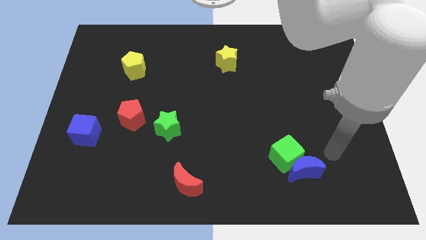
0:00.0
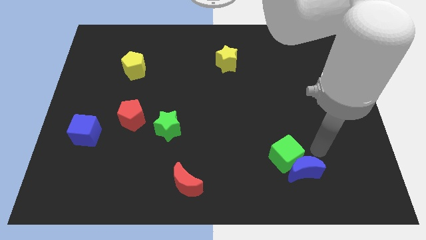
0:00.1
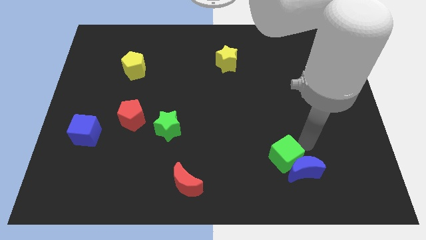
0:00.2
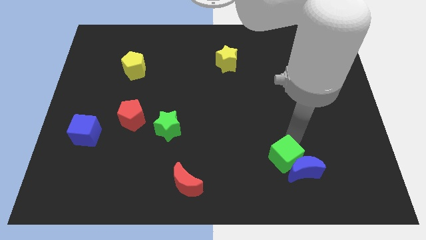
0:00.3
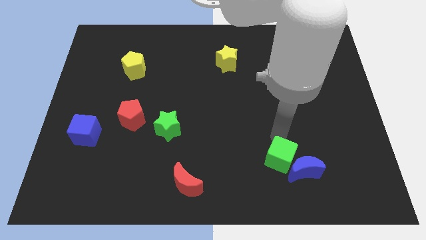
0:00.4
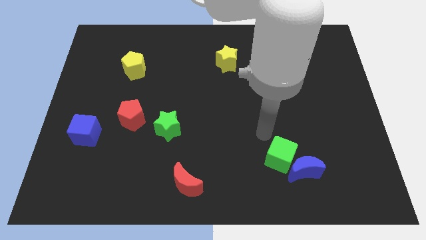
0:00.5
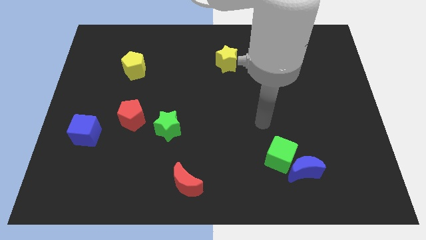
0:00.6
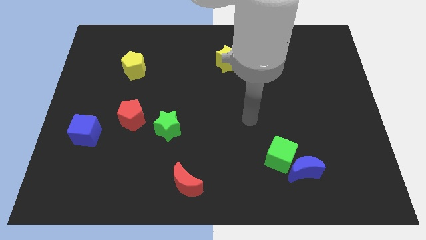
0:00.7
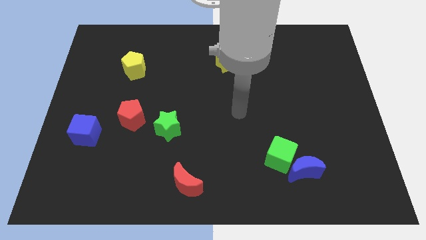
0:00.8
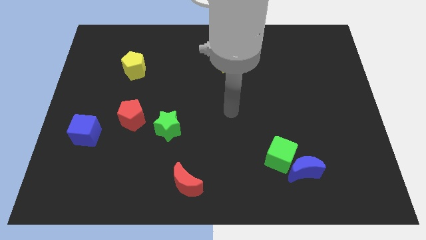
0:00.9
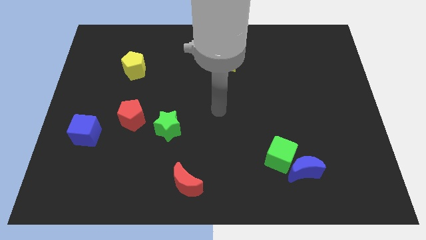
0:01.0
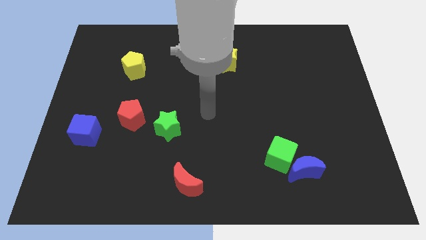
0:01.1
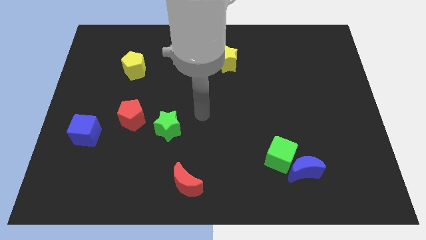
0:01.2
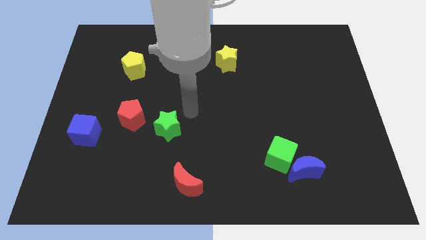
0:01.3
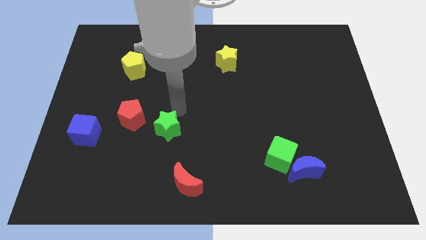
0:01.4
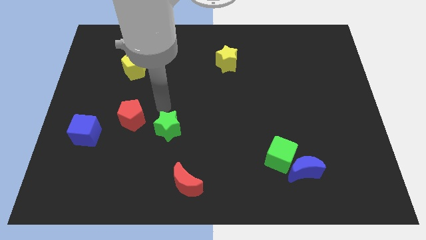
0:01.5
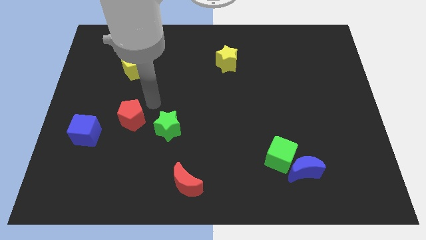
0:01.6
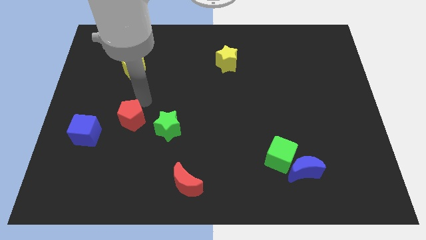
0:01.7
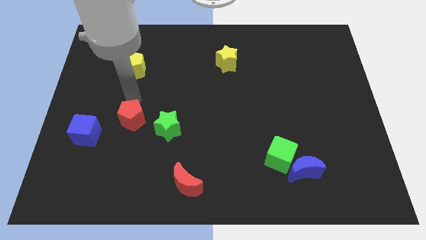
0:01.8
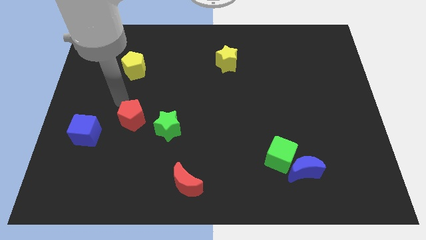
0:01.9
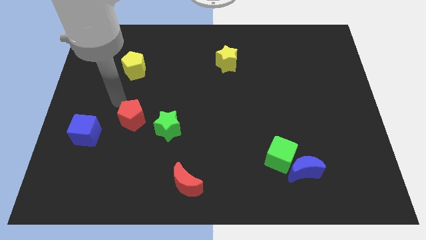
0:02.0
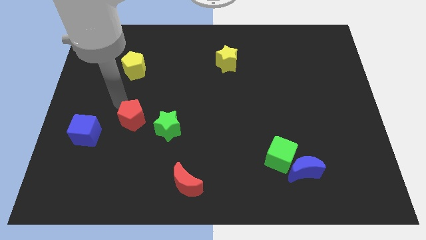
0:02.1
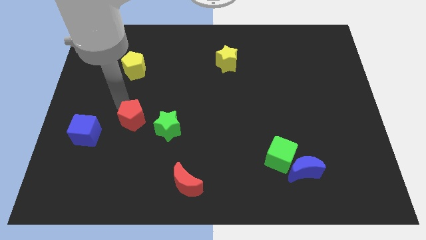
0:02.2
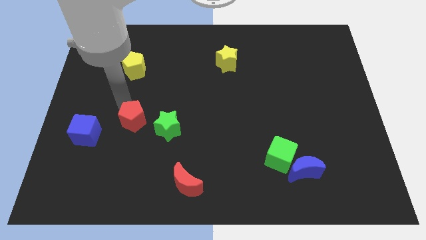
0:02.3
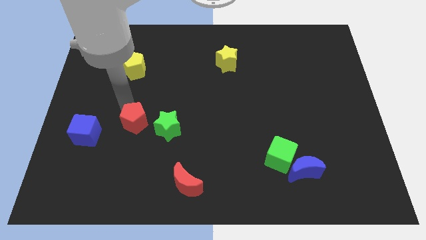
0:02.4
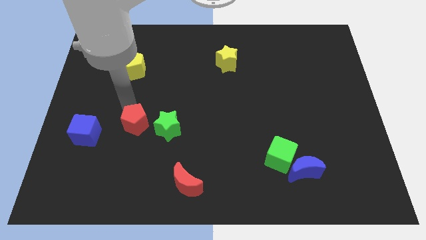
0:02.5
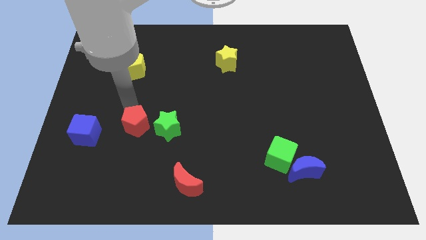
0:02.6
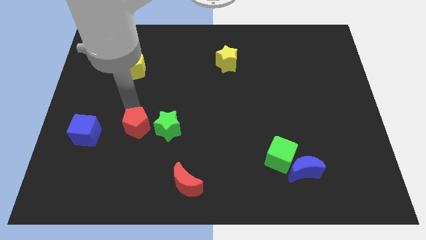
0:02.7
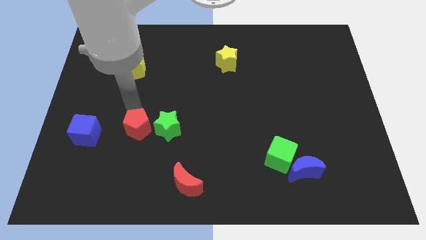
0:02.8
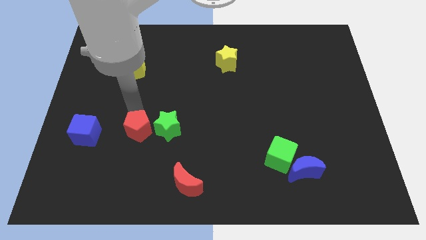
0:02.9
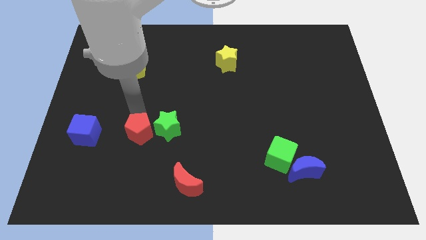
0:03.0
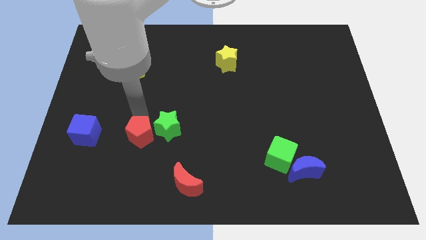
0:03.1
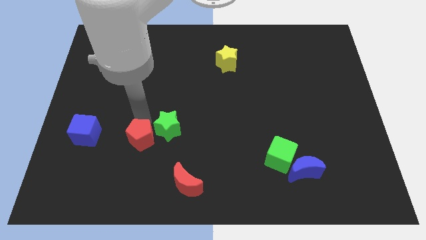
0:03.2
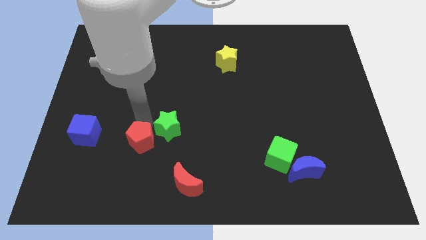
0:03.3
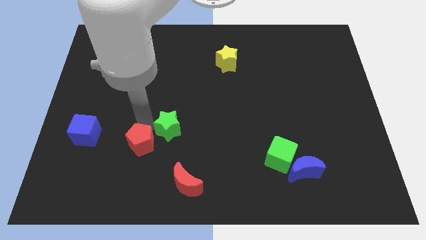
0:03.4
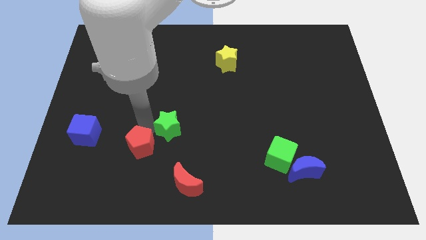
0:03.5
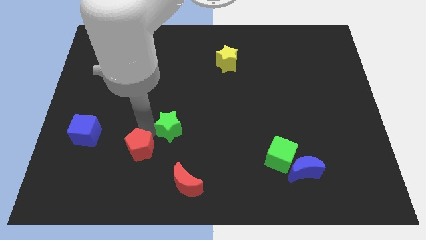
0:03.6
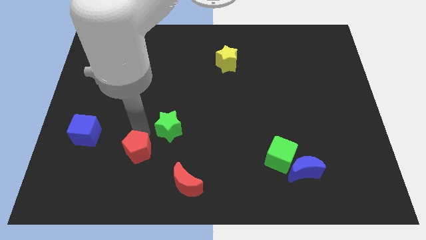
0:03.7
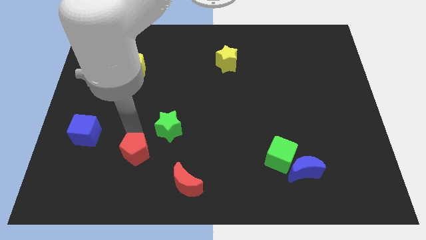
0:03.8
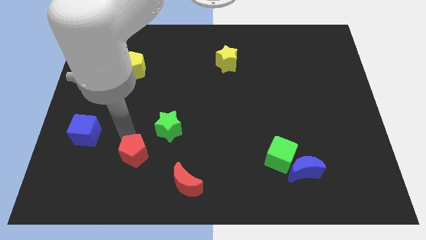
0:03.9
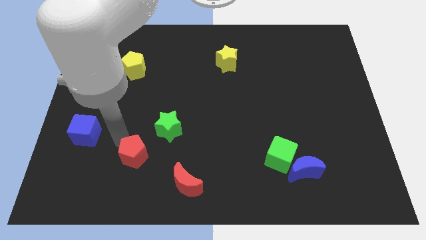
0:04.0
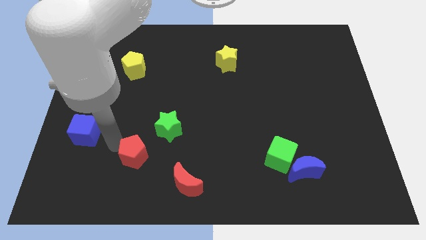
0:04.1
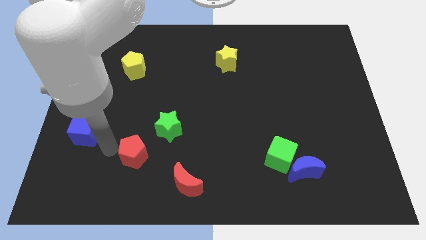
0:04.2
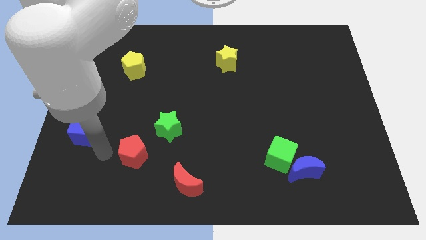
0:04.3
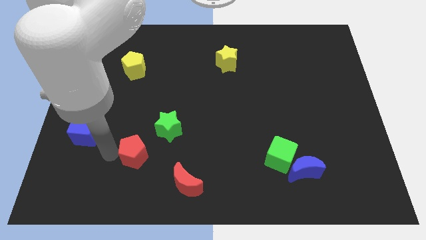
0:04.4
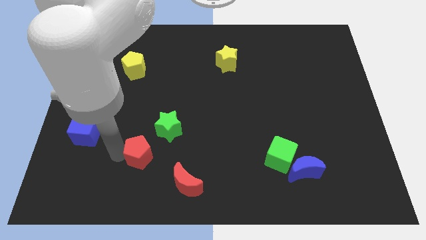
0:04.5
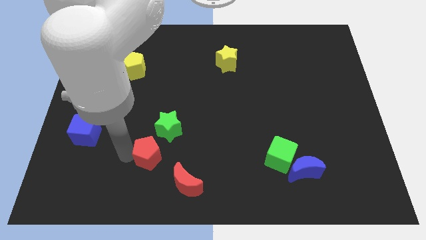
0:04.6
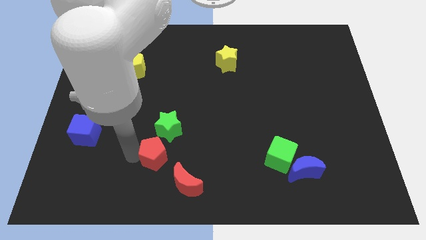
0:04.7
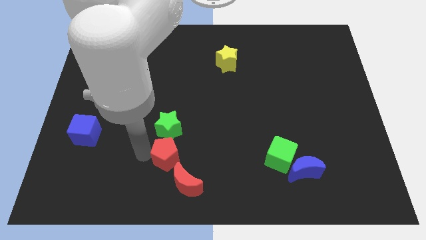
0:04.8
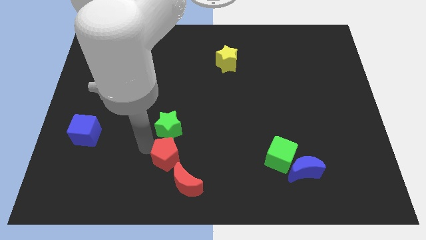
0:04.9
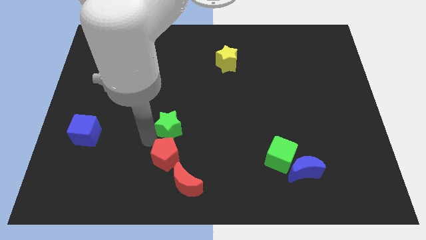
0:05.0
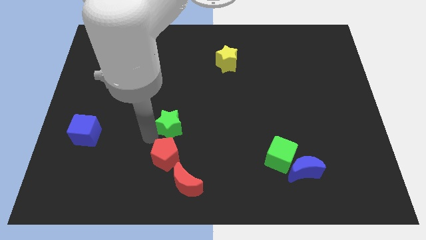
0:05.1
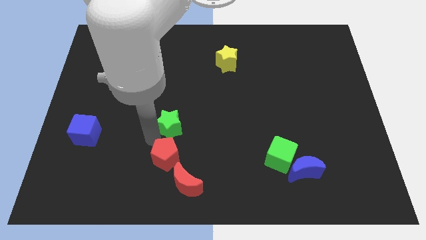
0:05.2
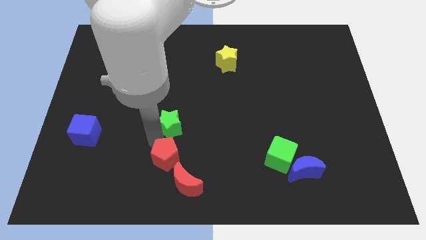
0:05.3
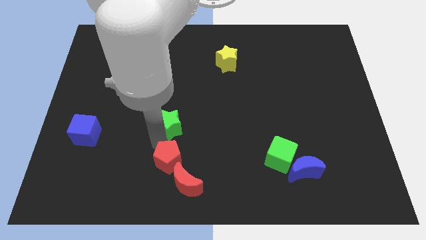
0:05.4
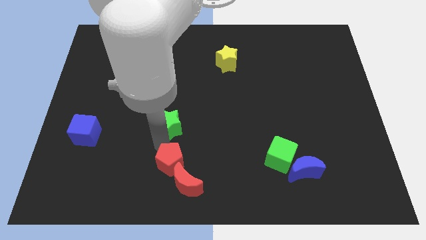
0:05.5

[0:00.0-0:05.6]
move the red pentagon towards the red moon

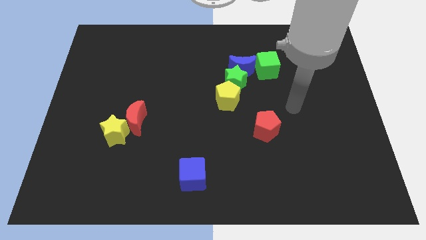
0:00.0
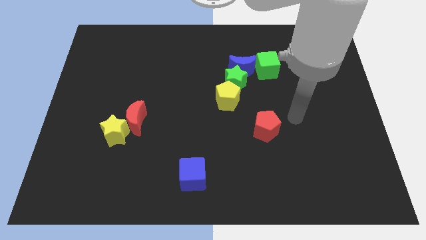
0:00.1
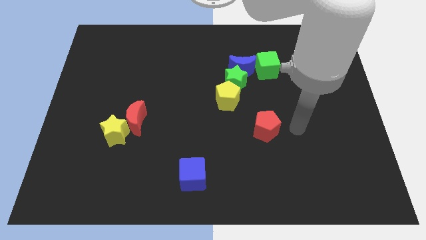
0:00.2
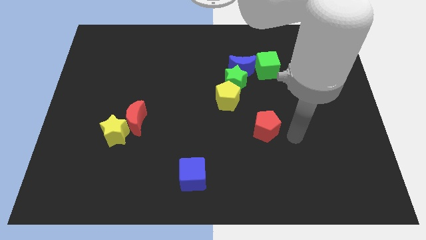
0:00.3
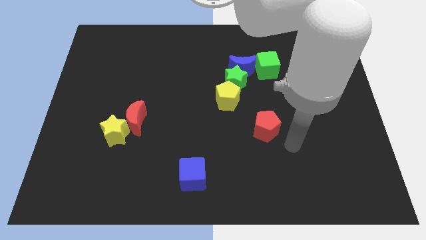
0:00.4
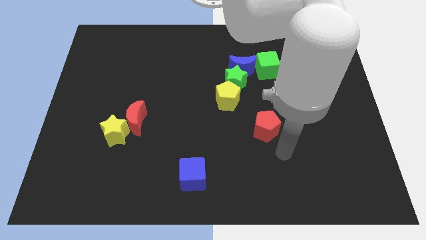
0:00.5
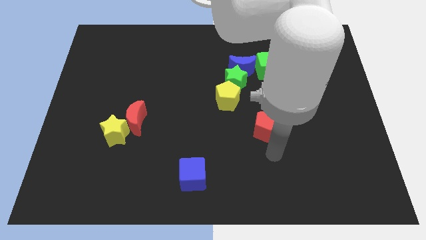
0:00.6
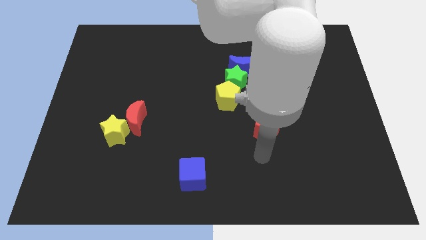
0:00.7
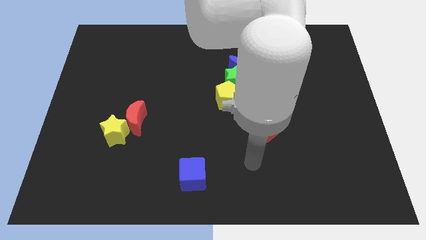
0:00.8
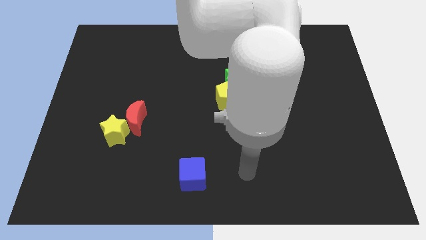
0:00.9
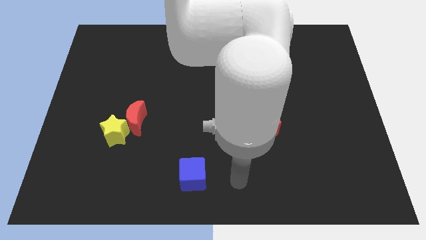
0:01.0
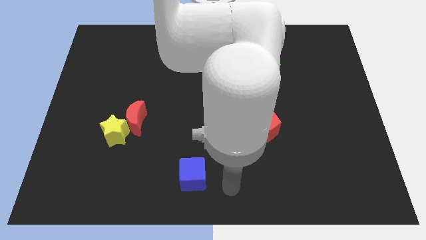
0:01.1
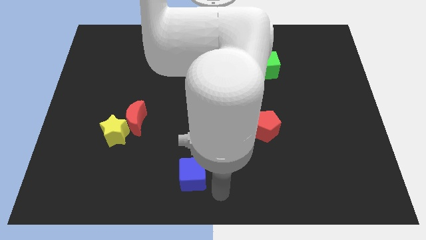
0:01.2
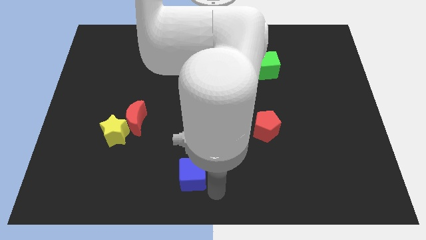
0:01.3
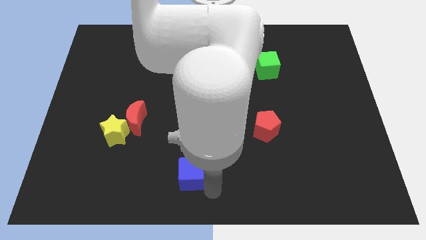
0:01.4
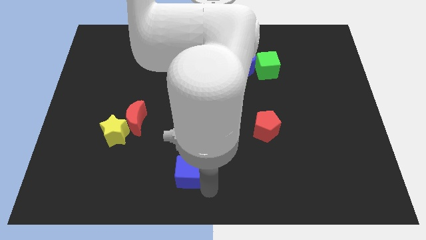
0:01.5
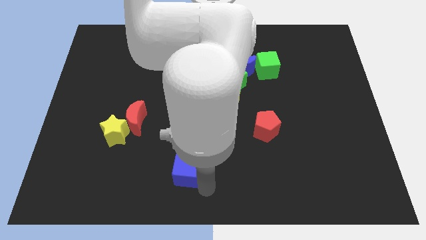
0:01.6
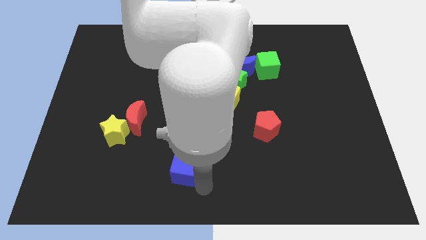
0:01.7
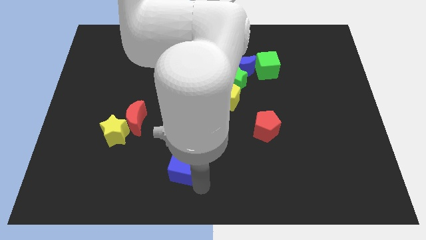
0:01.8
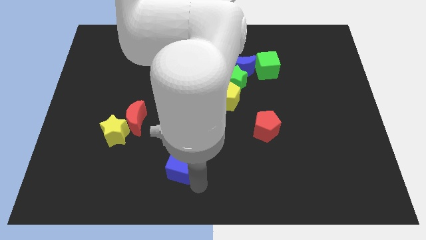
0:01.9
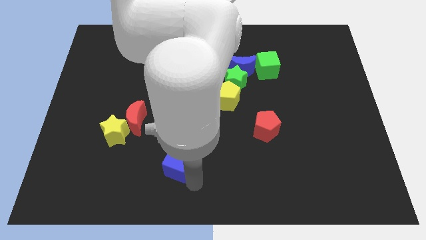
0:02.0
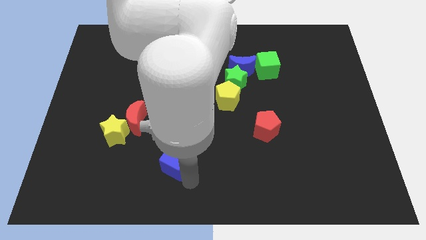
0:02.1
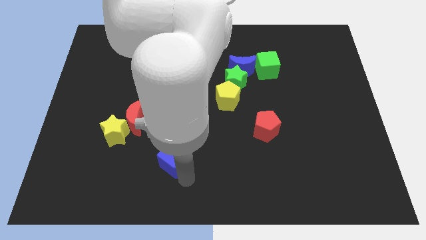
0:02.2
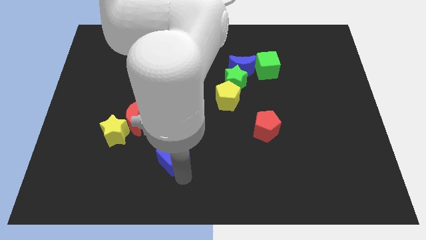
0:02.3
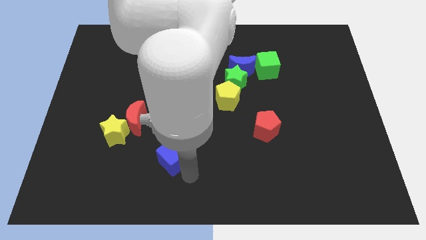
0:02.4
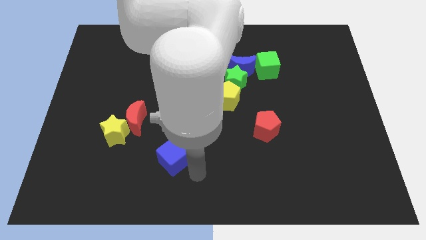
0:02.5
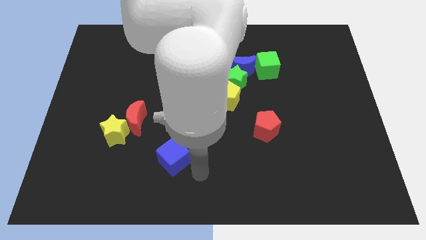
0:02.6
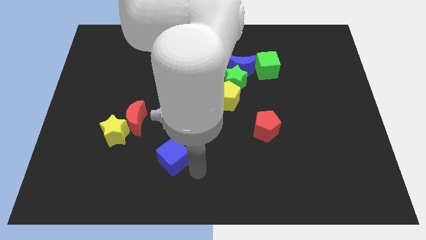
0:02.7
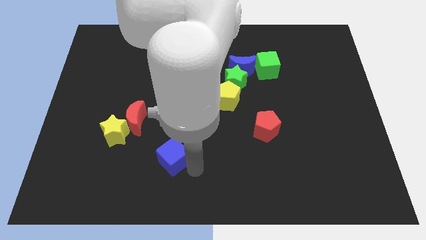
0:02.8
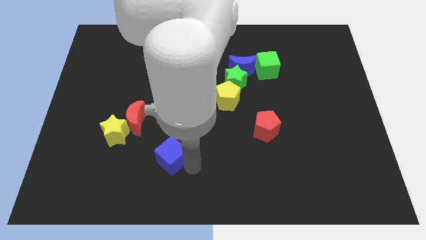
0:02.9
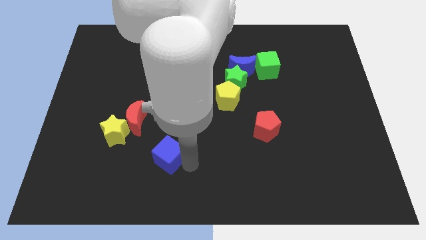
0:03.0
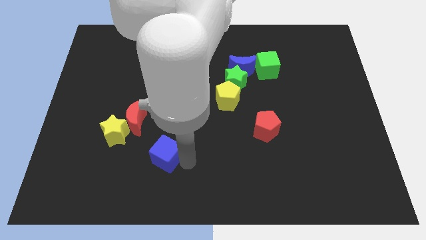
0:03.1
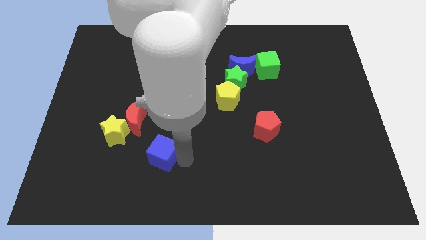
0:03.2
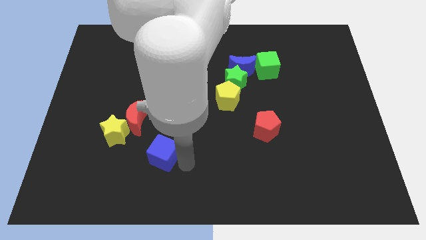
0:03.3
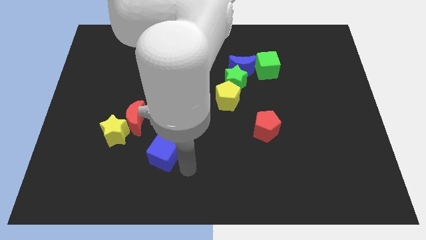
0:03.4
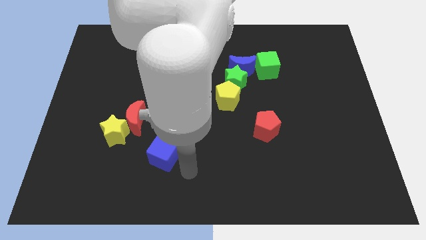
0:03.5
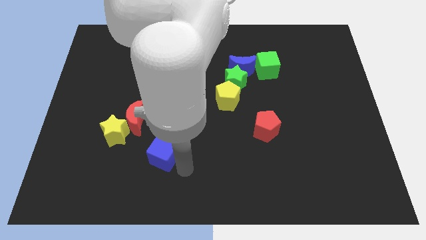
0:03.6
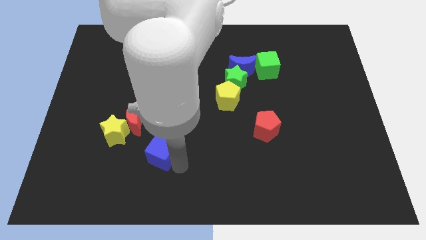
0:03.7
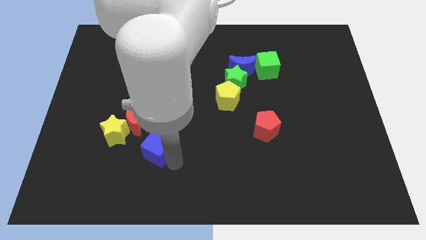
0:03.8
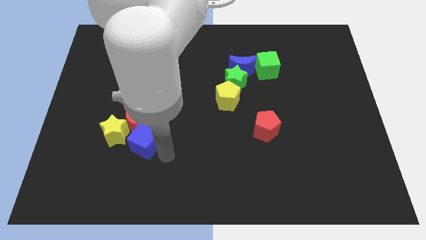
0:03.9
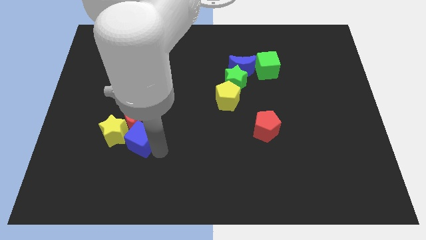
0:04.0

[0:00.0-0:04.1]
move the blue cube to the yellow star
